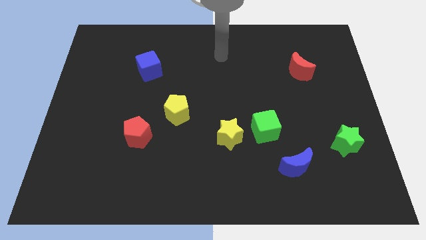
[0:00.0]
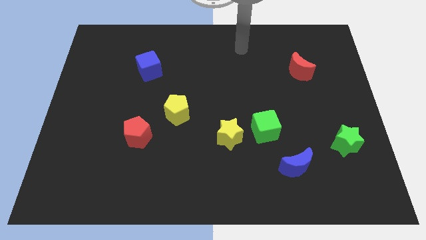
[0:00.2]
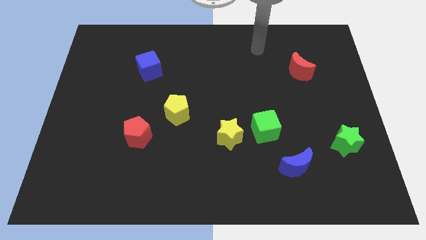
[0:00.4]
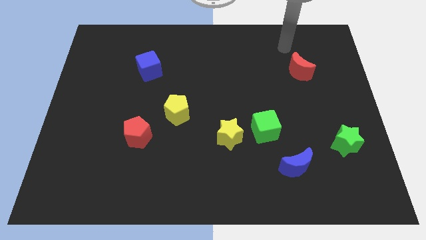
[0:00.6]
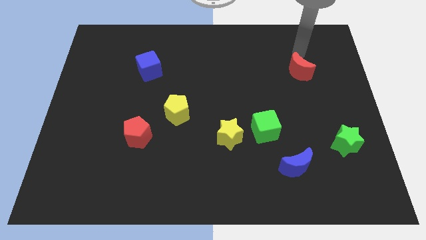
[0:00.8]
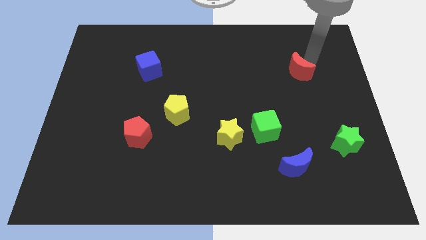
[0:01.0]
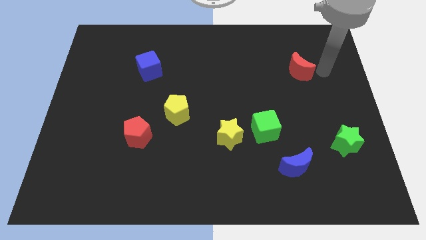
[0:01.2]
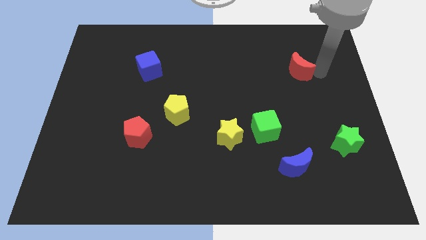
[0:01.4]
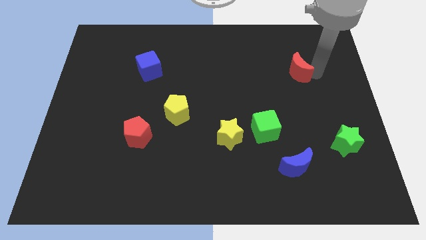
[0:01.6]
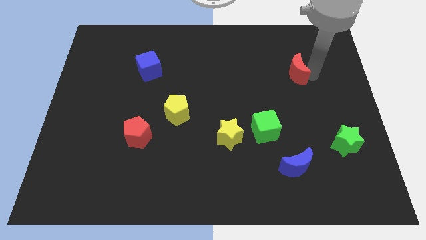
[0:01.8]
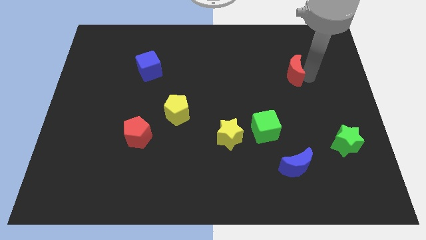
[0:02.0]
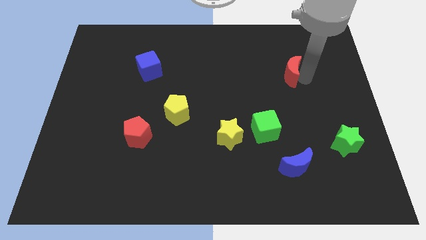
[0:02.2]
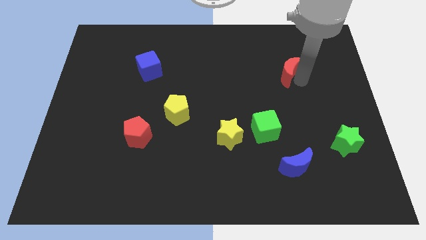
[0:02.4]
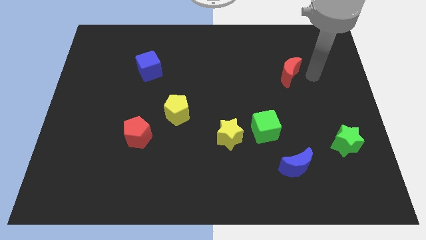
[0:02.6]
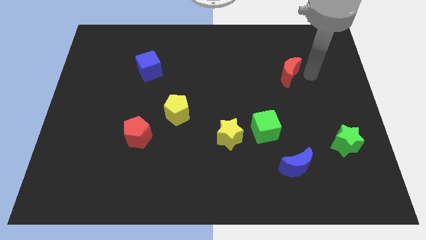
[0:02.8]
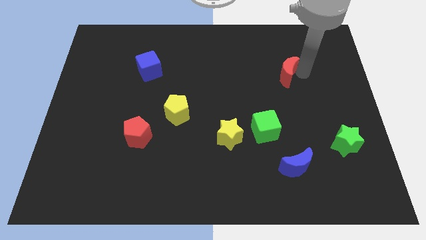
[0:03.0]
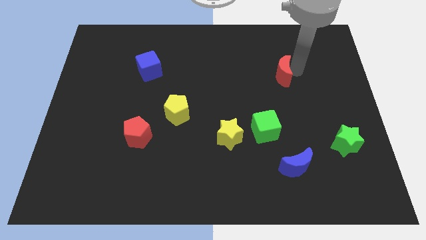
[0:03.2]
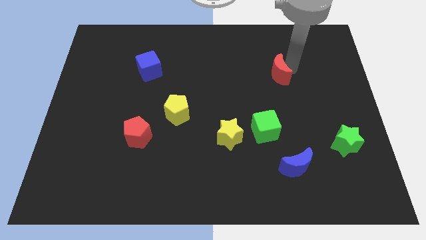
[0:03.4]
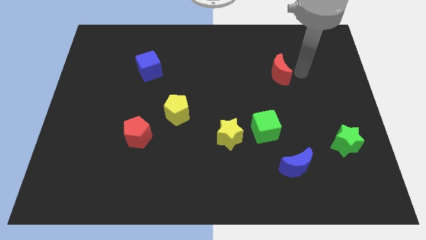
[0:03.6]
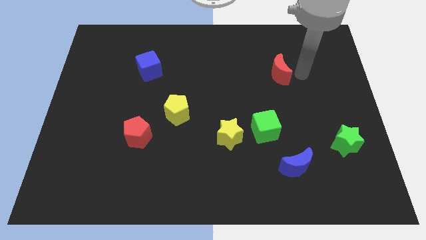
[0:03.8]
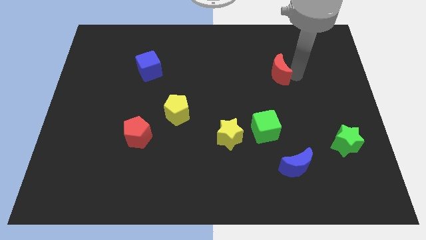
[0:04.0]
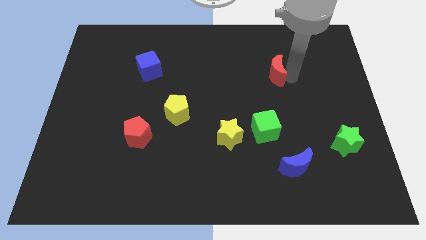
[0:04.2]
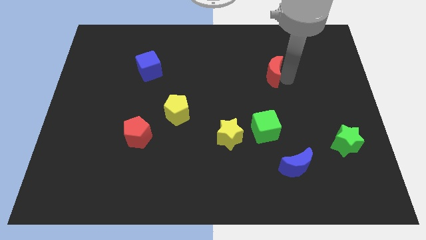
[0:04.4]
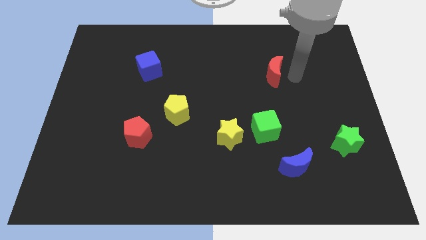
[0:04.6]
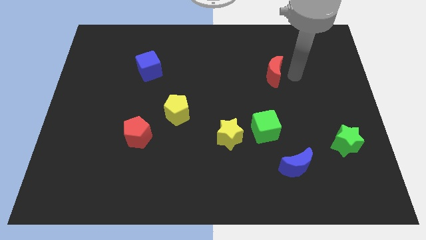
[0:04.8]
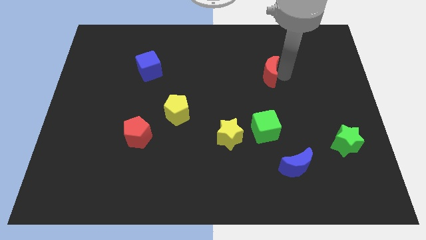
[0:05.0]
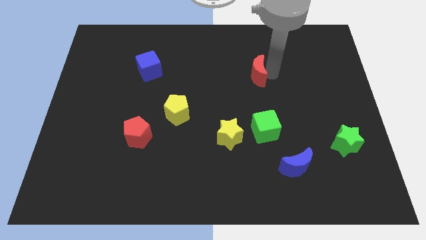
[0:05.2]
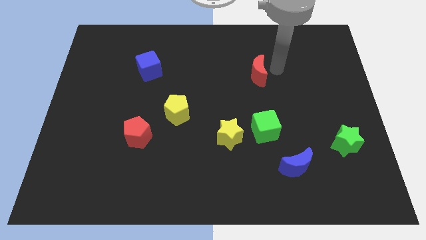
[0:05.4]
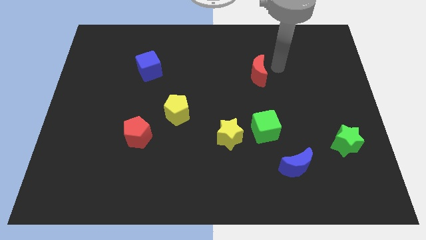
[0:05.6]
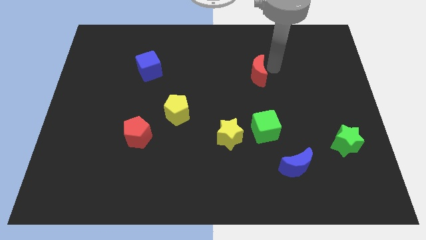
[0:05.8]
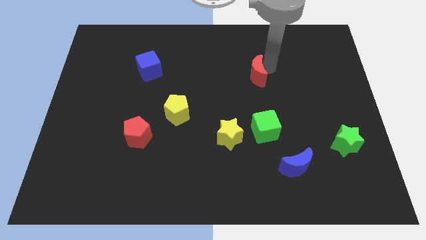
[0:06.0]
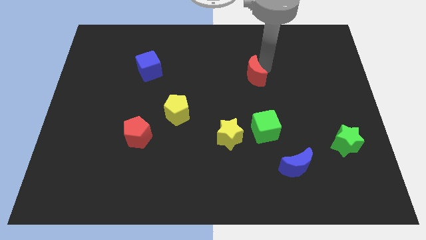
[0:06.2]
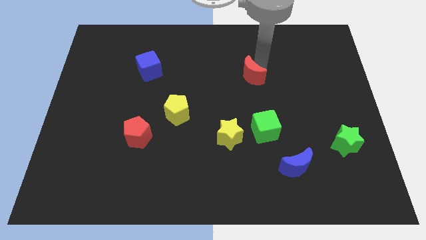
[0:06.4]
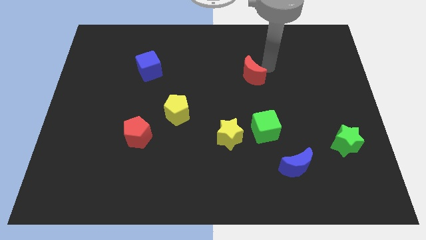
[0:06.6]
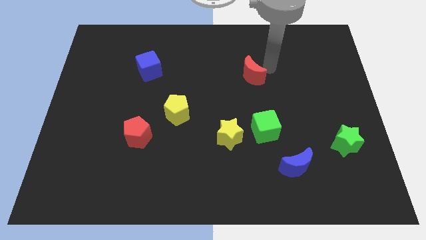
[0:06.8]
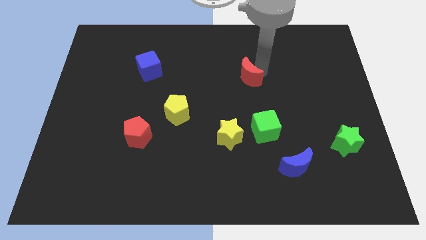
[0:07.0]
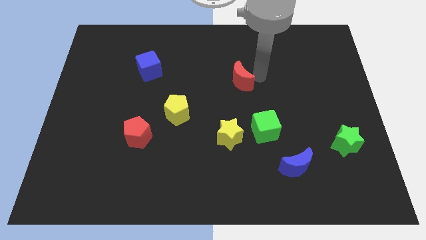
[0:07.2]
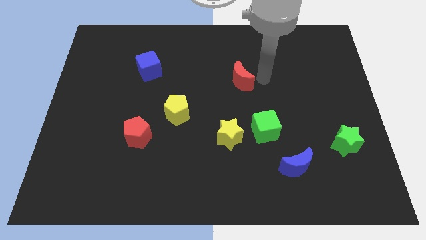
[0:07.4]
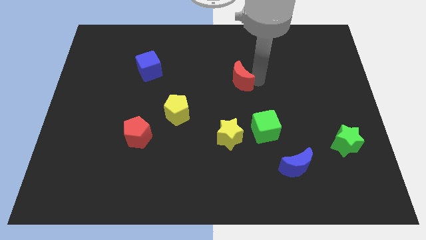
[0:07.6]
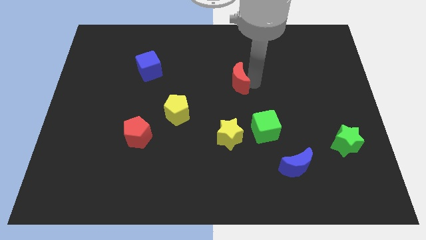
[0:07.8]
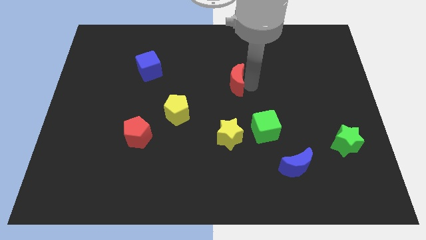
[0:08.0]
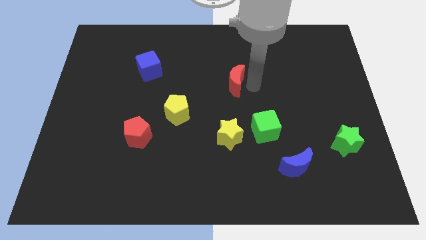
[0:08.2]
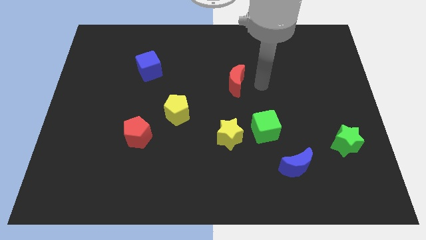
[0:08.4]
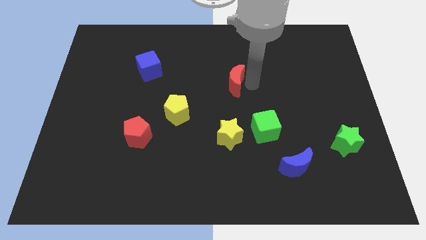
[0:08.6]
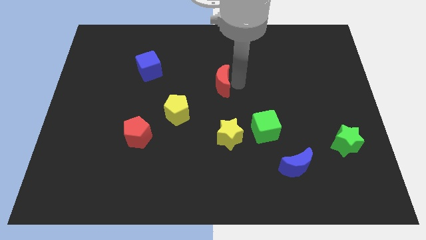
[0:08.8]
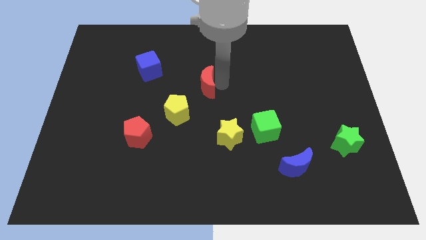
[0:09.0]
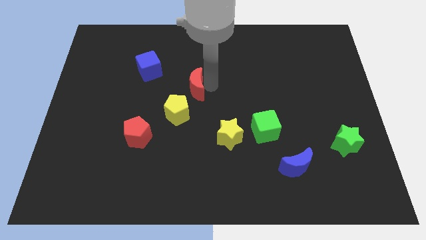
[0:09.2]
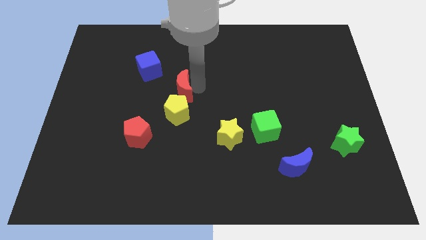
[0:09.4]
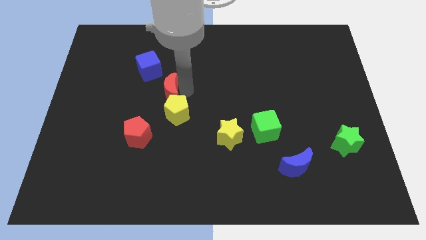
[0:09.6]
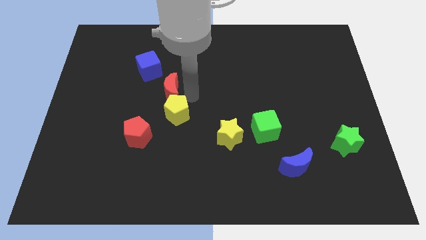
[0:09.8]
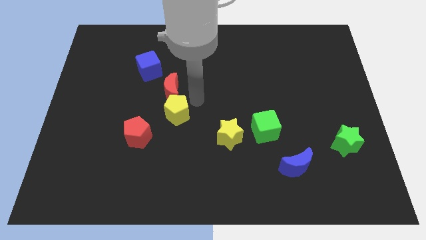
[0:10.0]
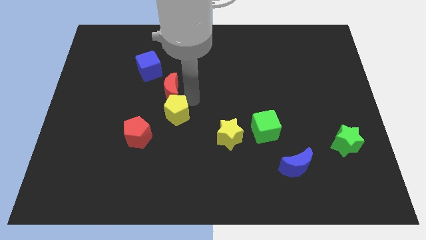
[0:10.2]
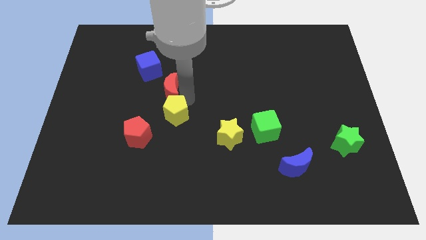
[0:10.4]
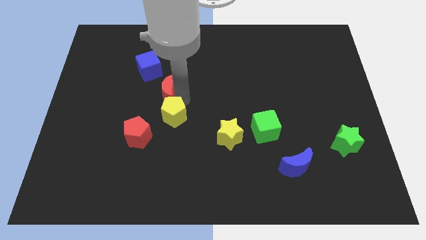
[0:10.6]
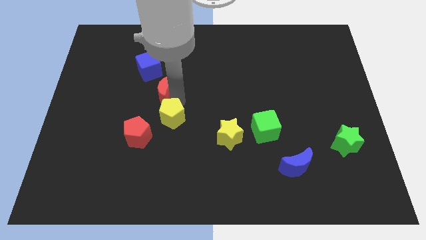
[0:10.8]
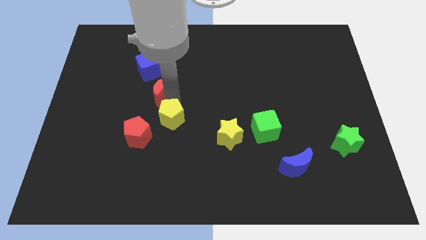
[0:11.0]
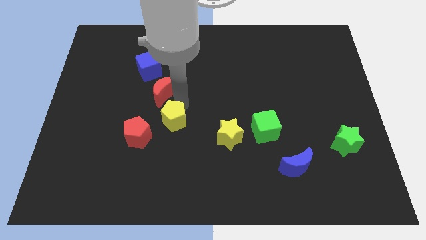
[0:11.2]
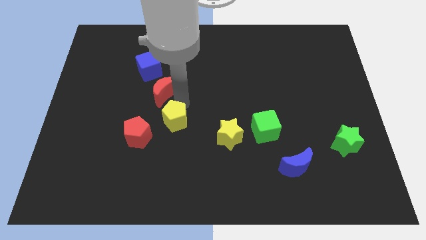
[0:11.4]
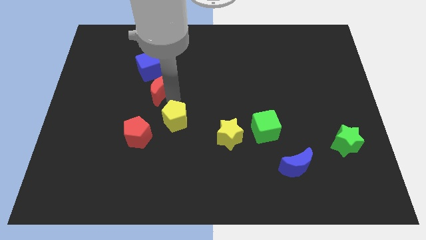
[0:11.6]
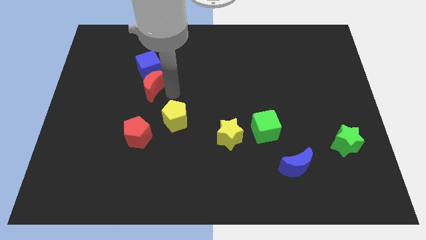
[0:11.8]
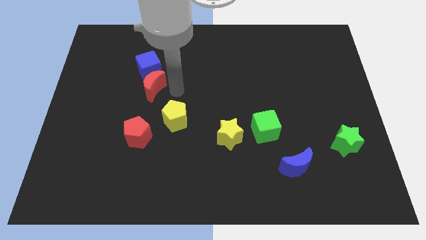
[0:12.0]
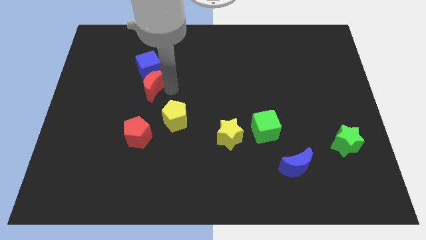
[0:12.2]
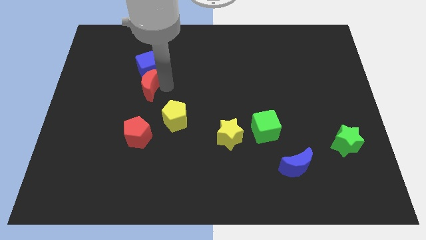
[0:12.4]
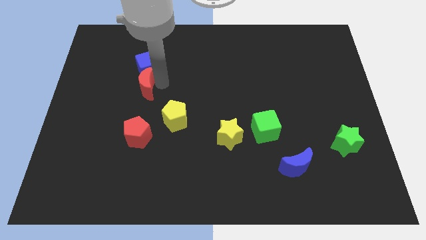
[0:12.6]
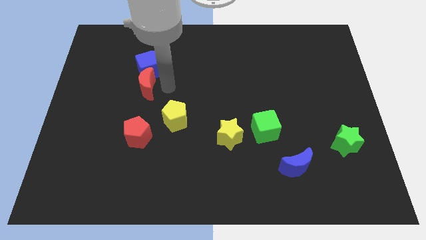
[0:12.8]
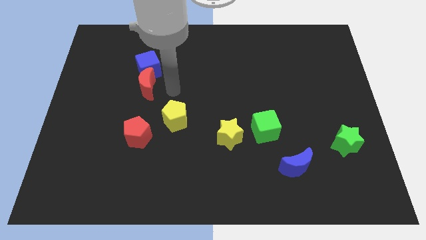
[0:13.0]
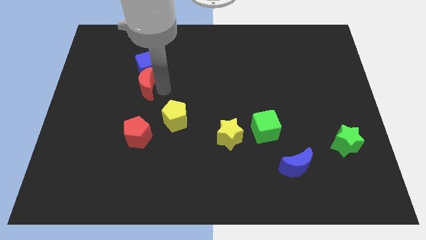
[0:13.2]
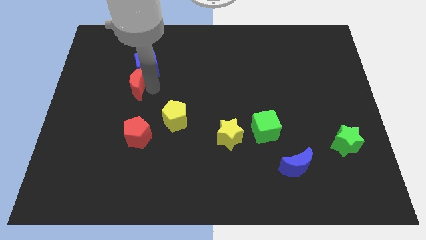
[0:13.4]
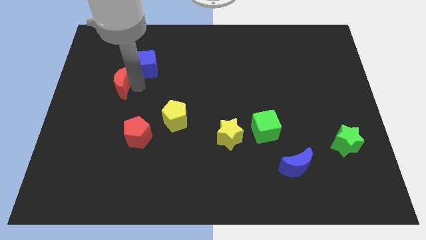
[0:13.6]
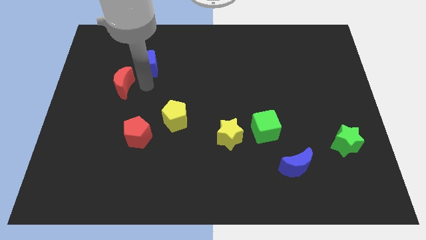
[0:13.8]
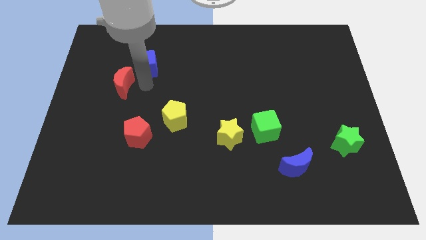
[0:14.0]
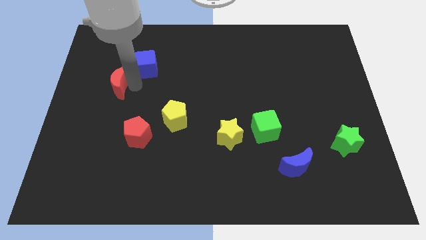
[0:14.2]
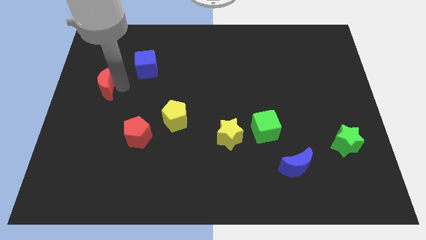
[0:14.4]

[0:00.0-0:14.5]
put the red moon to the center left
